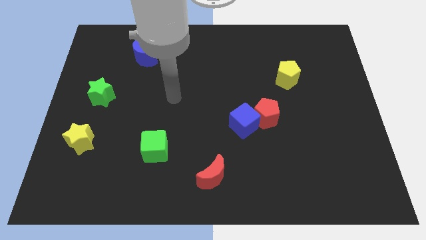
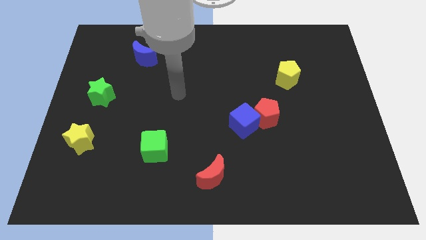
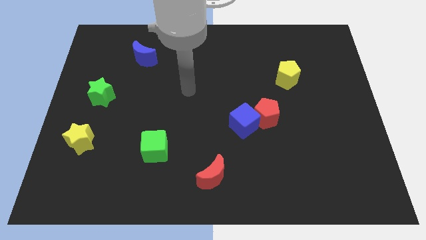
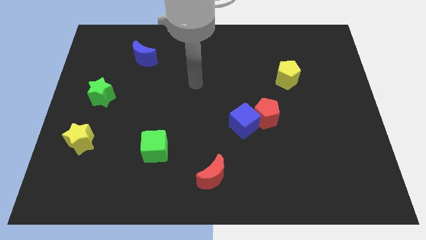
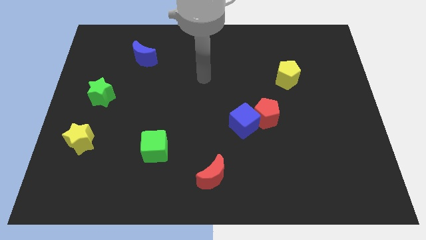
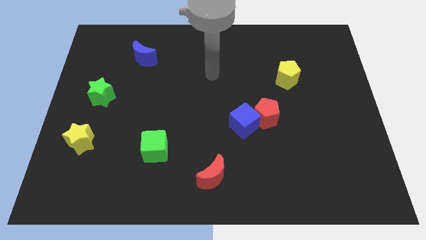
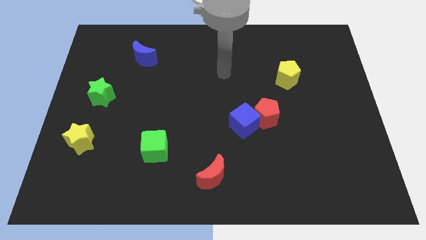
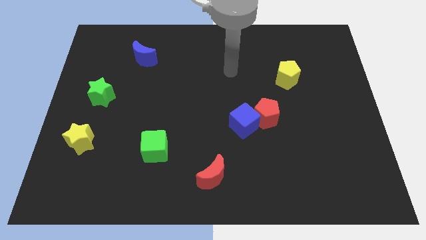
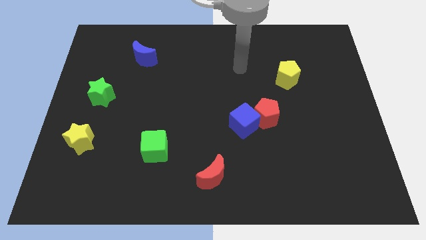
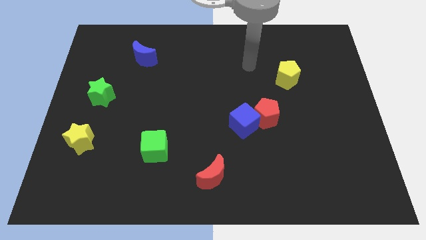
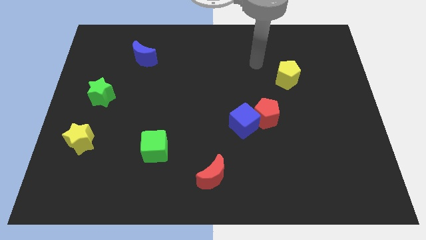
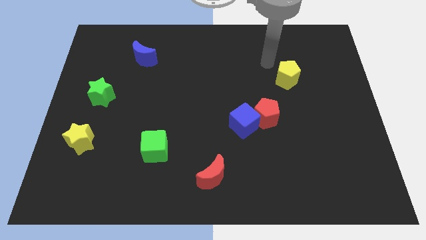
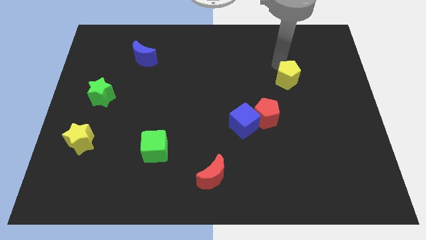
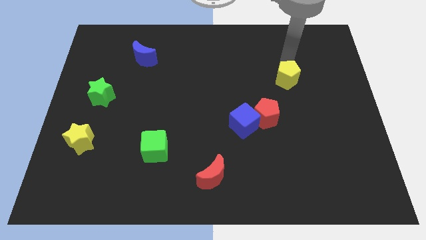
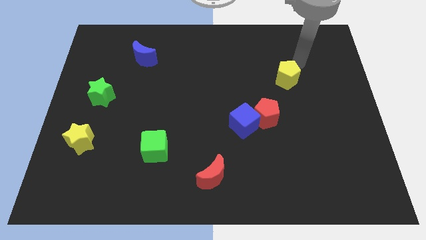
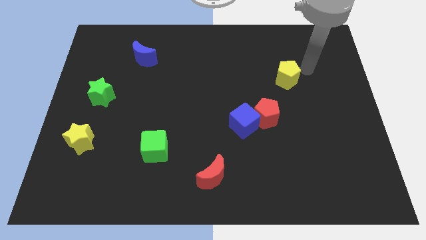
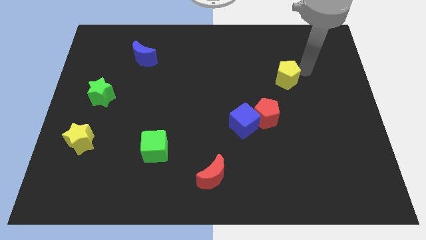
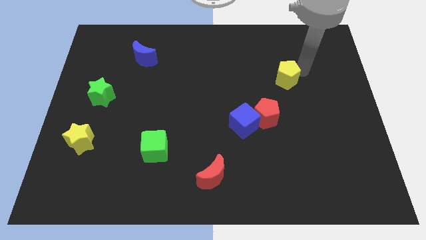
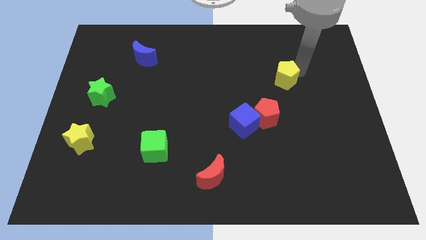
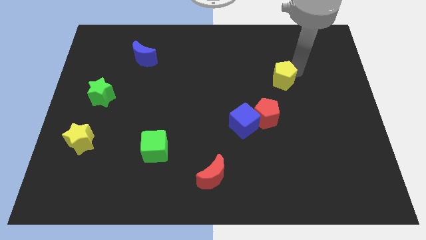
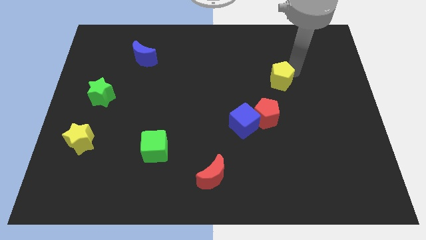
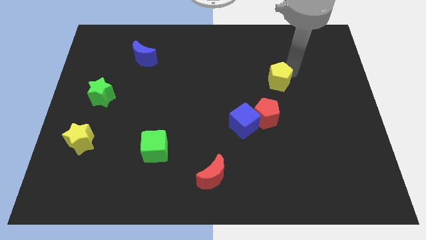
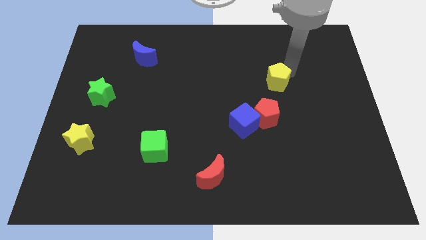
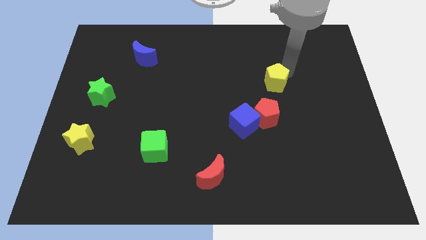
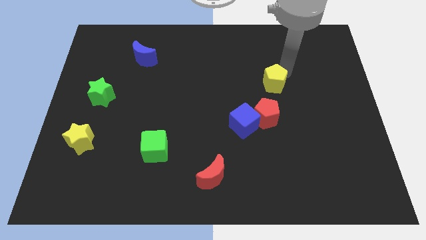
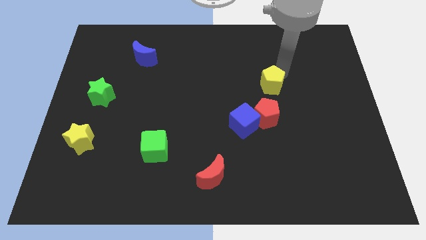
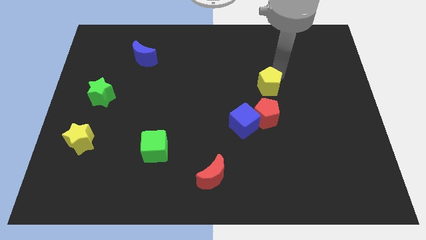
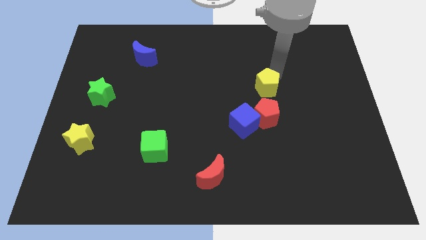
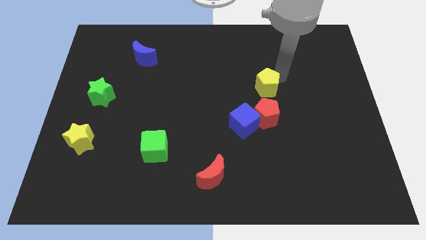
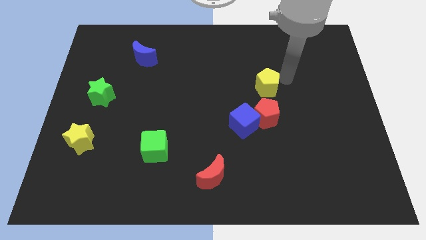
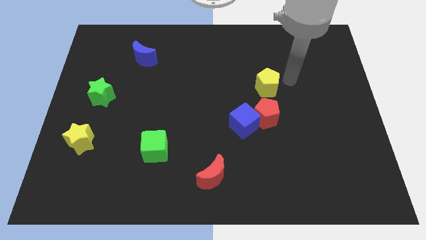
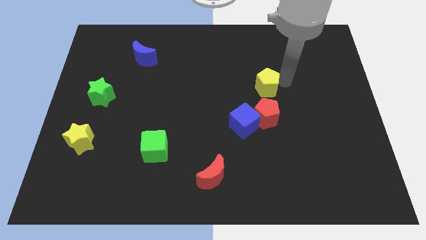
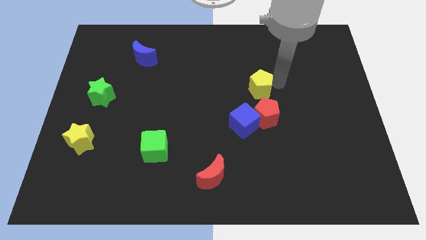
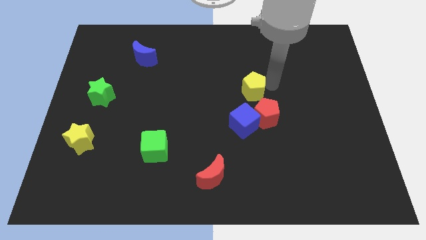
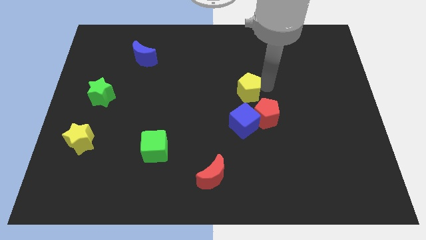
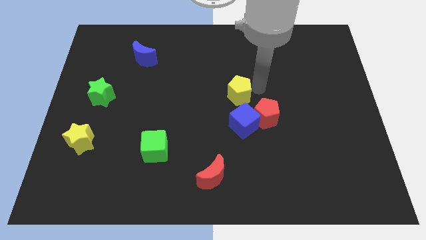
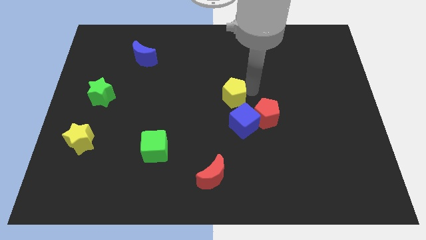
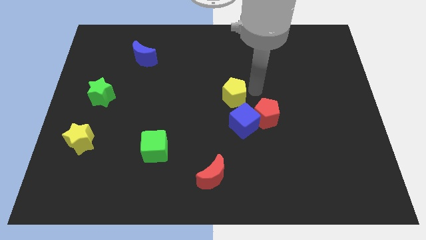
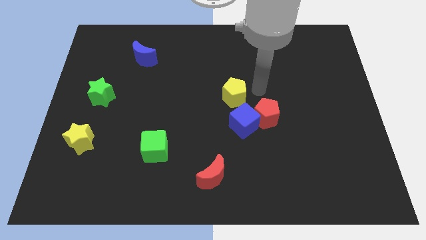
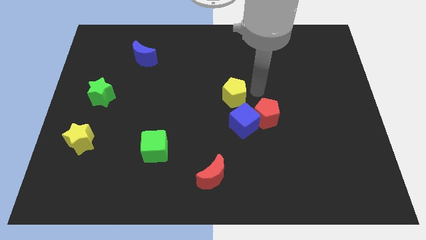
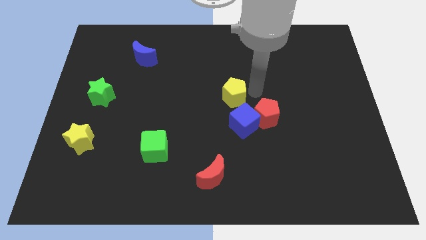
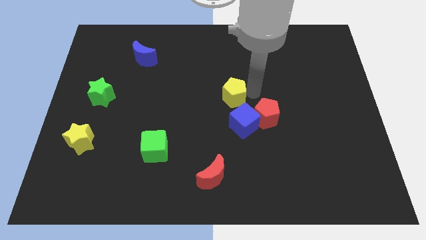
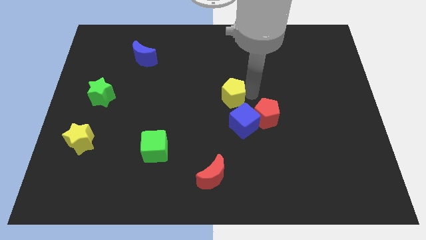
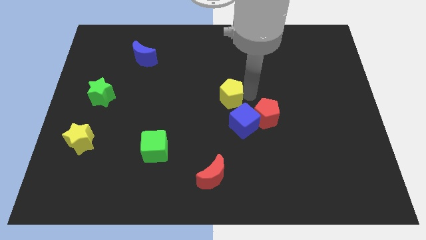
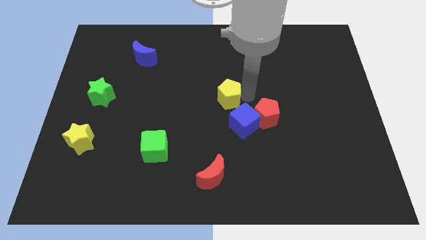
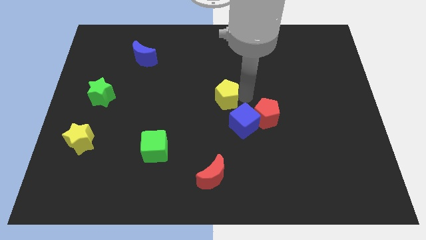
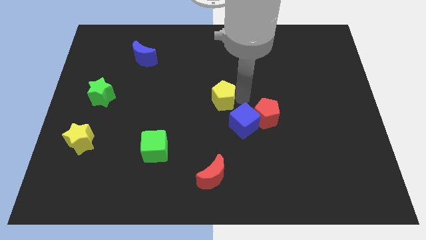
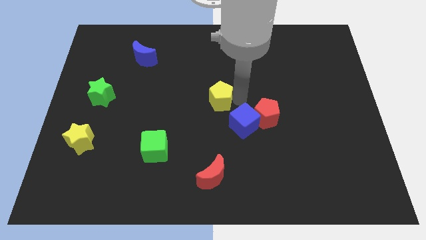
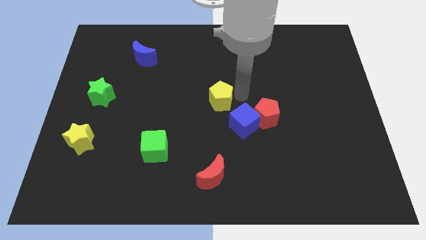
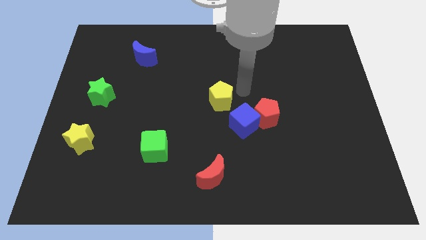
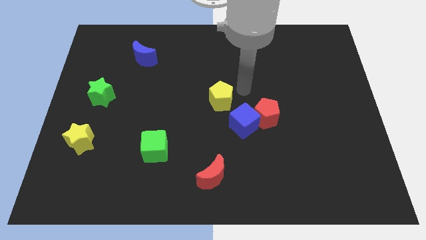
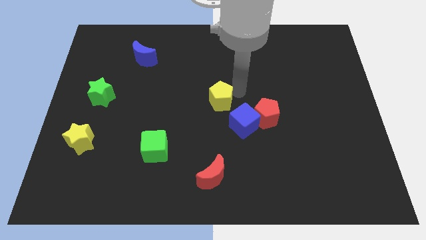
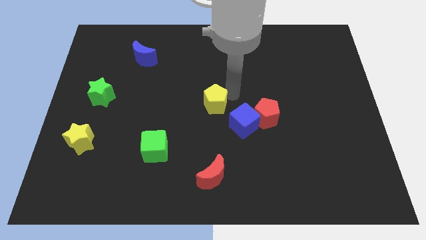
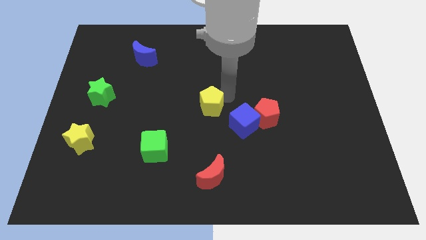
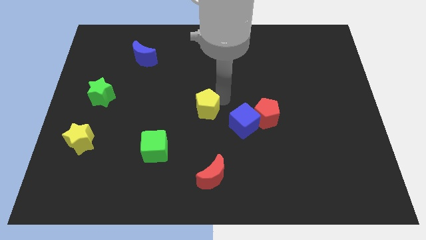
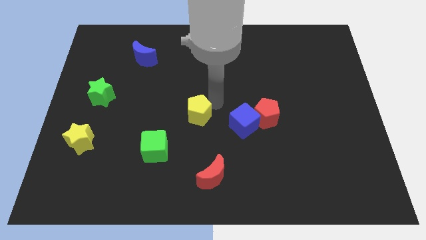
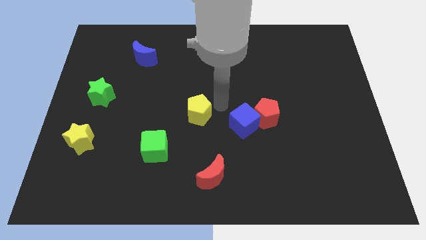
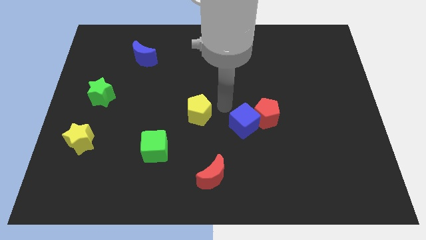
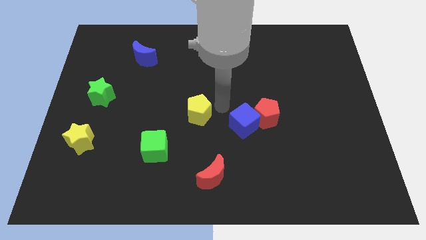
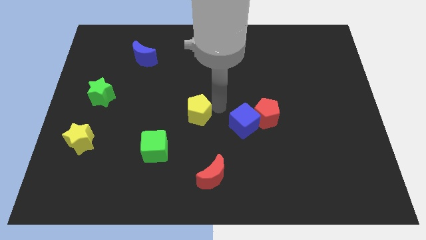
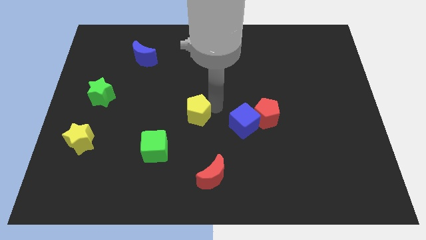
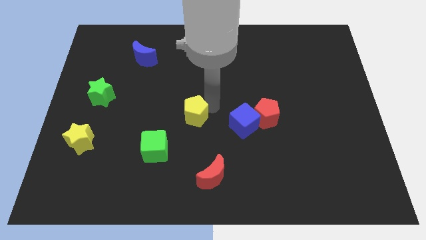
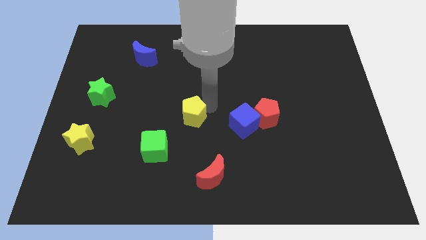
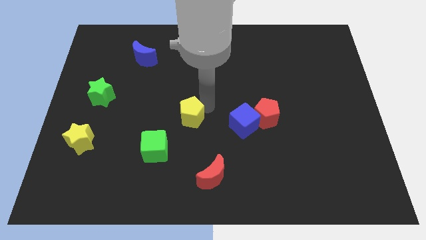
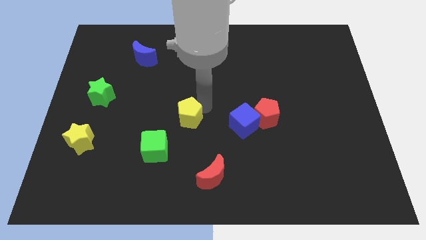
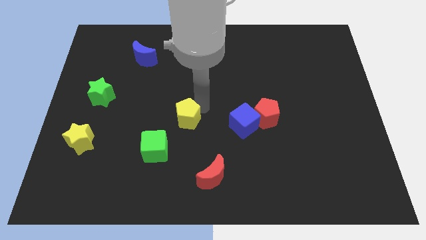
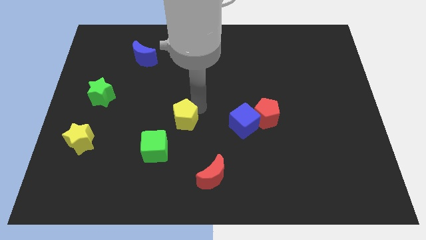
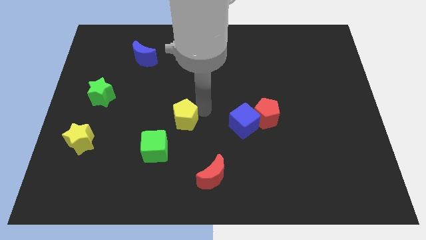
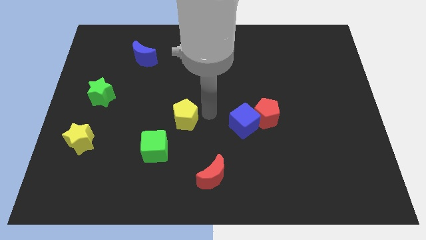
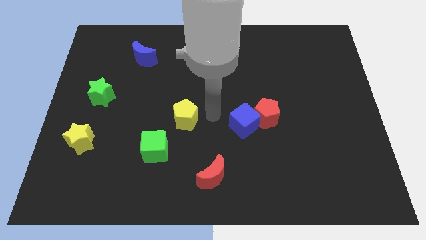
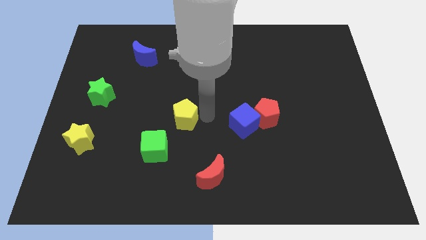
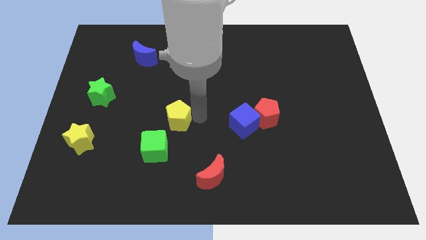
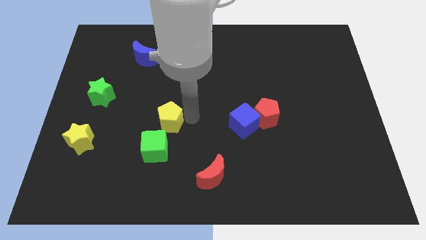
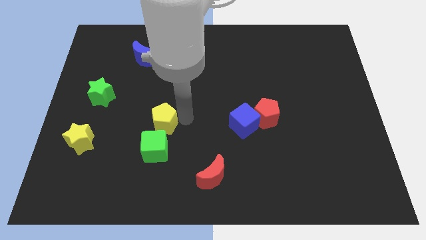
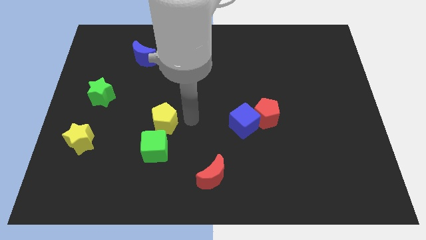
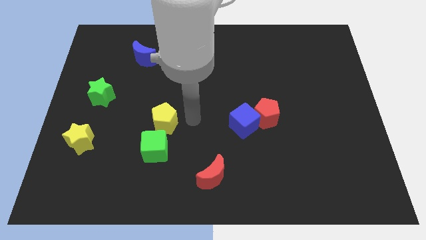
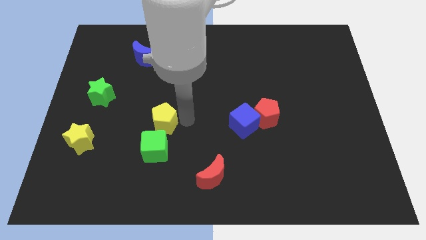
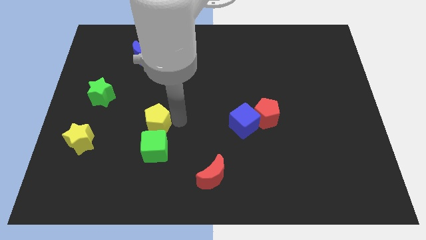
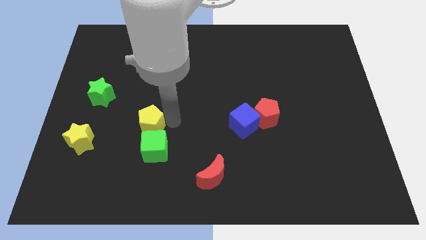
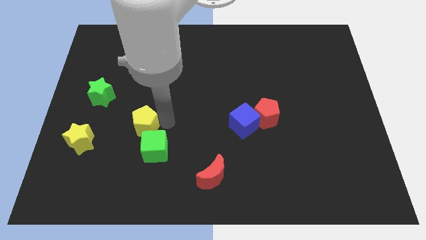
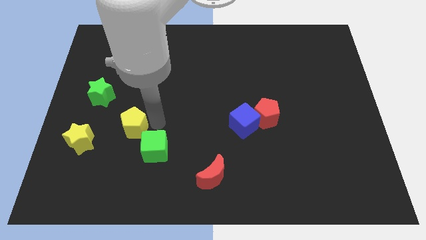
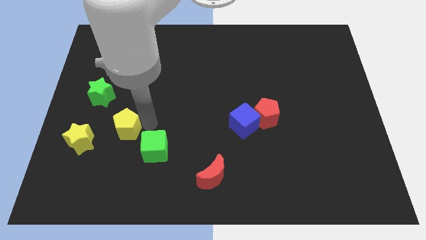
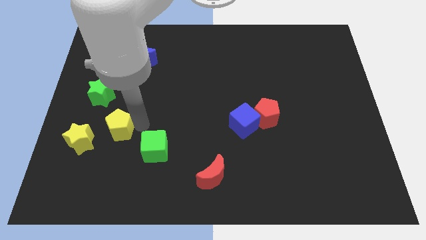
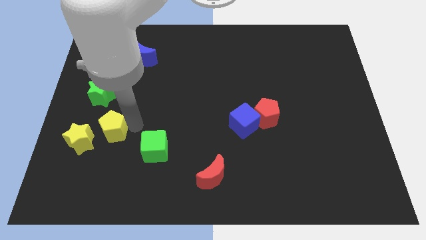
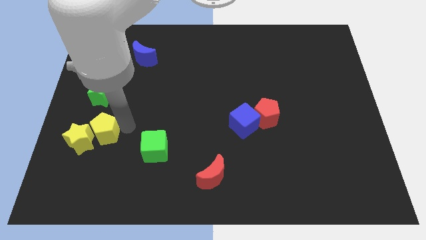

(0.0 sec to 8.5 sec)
move the yellow pentagon close to the yellow star
